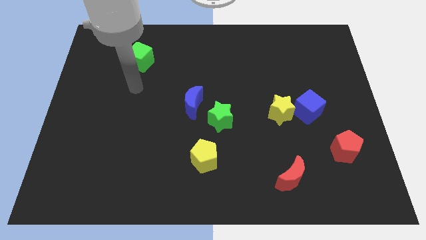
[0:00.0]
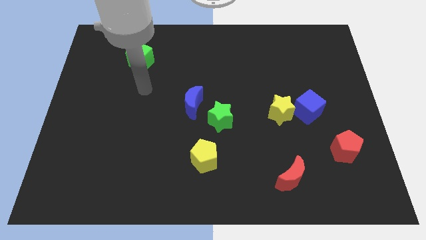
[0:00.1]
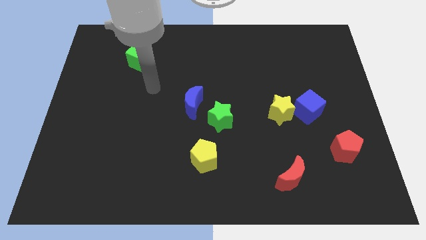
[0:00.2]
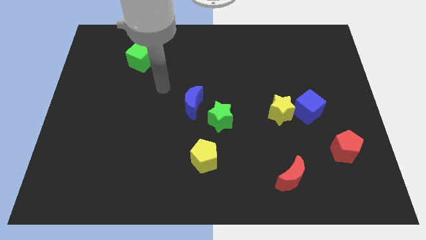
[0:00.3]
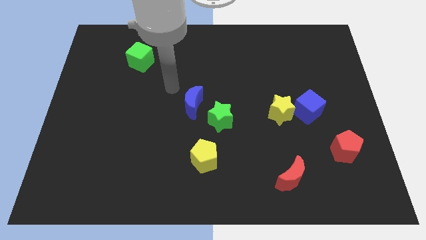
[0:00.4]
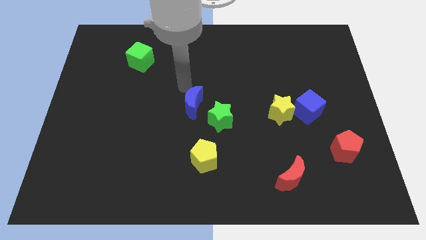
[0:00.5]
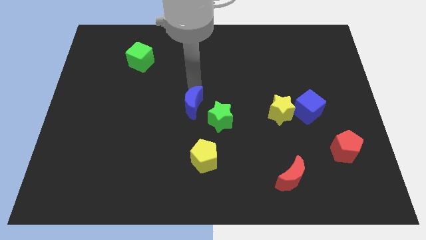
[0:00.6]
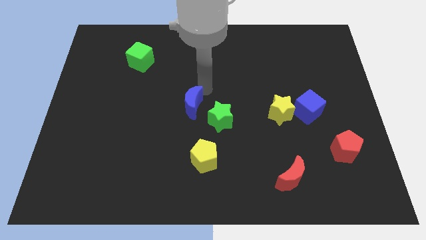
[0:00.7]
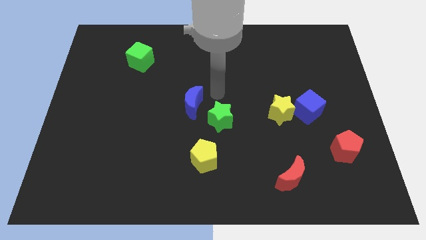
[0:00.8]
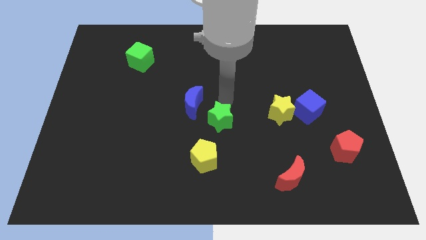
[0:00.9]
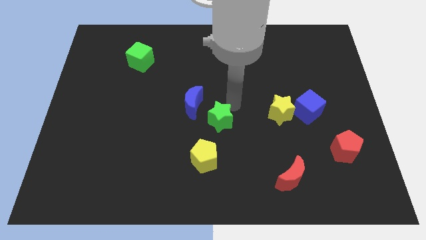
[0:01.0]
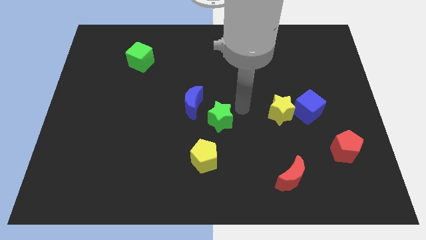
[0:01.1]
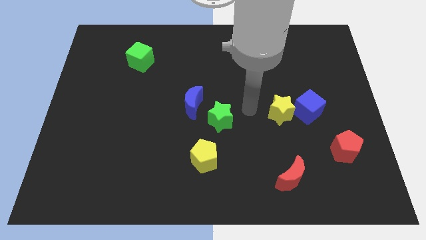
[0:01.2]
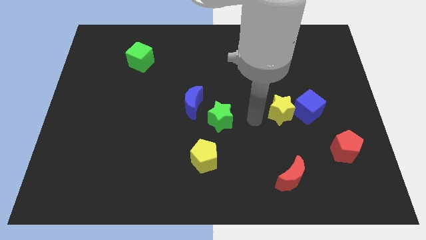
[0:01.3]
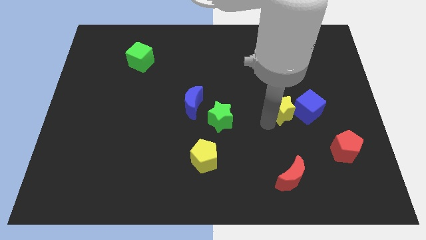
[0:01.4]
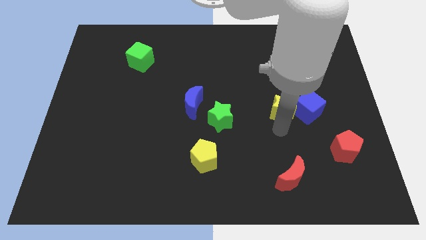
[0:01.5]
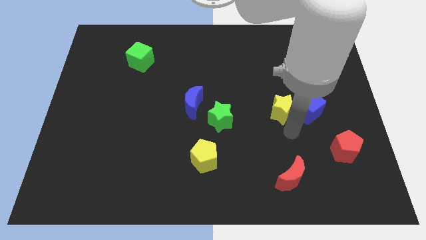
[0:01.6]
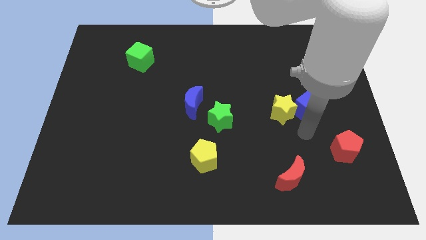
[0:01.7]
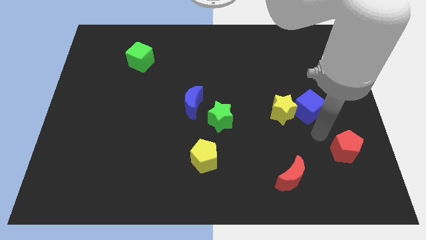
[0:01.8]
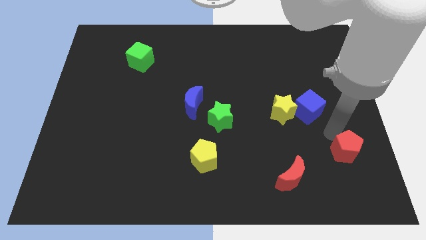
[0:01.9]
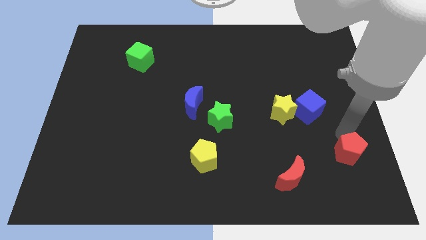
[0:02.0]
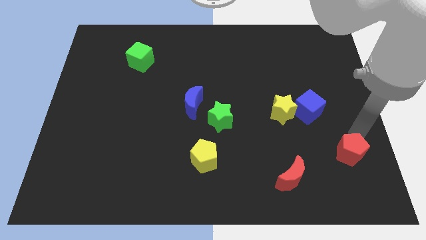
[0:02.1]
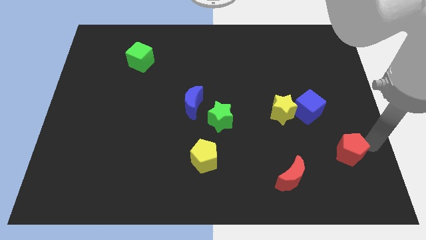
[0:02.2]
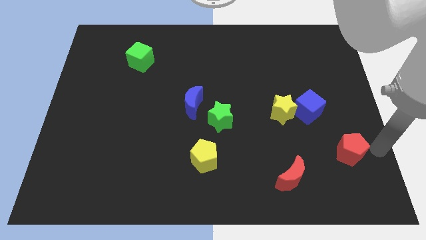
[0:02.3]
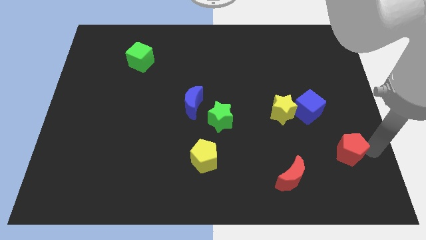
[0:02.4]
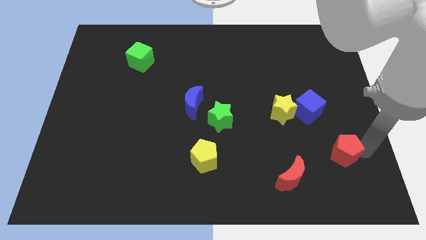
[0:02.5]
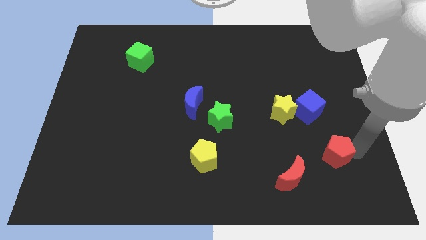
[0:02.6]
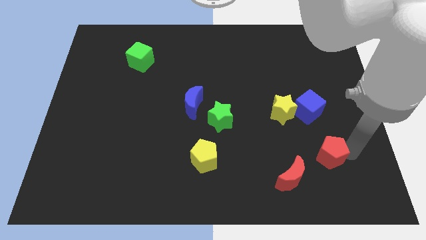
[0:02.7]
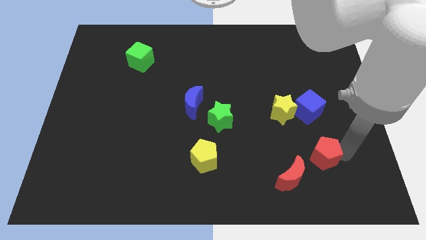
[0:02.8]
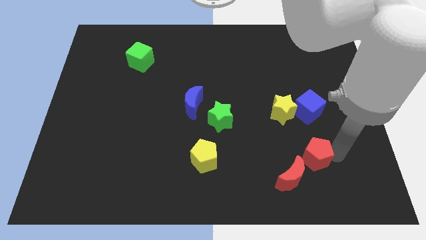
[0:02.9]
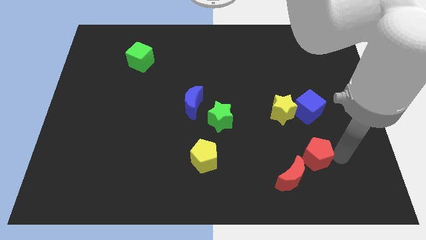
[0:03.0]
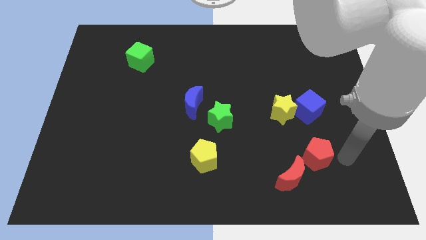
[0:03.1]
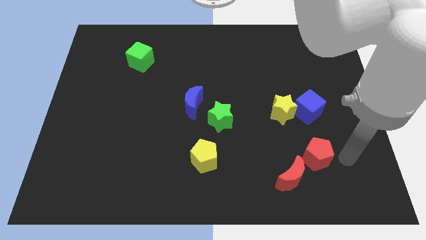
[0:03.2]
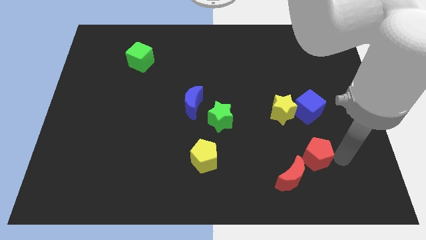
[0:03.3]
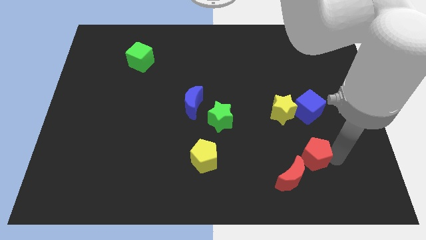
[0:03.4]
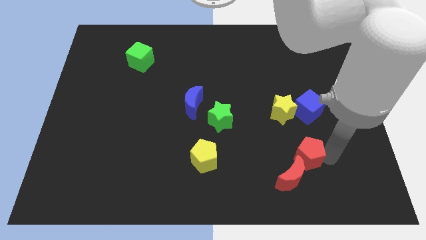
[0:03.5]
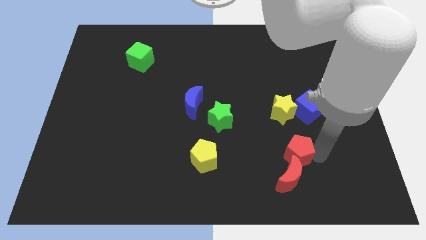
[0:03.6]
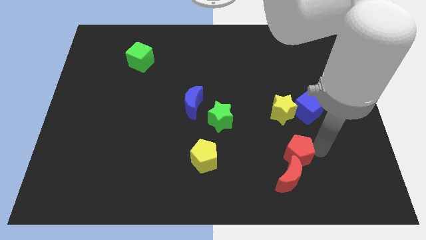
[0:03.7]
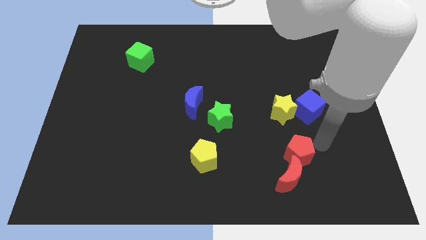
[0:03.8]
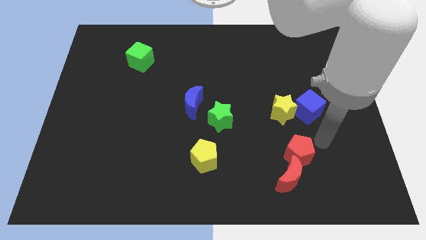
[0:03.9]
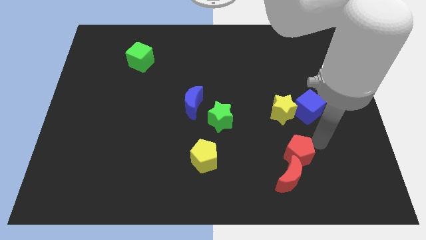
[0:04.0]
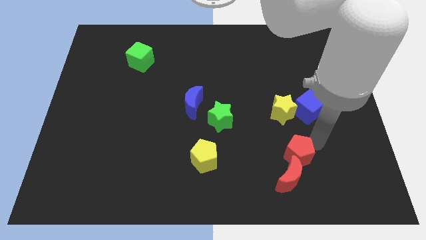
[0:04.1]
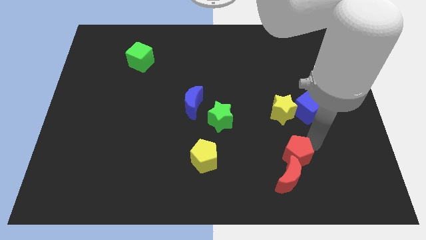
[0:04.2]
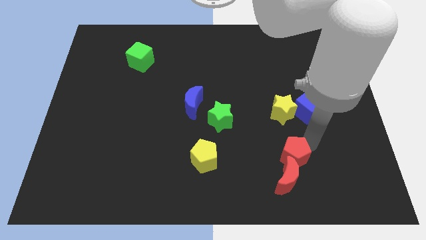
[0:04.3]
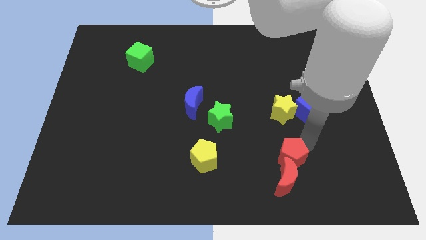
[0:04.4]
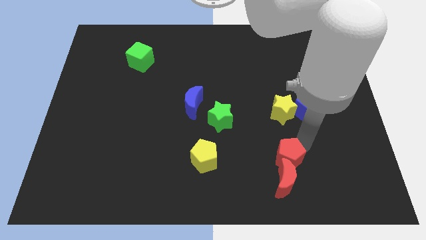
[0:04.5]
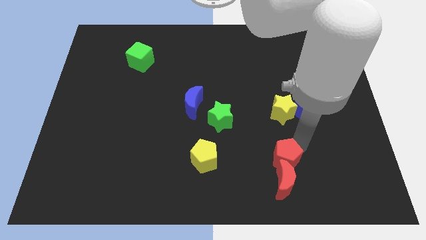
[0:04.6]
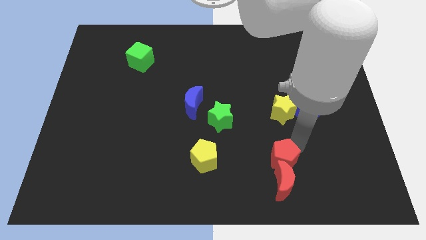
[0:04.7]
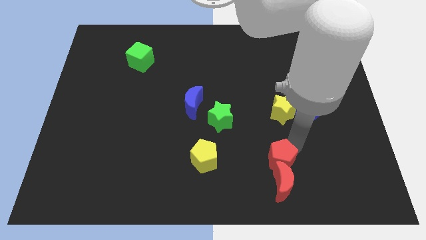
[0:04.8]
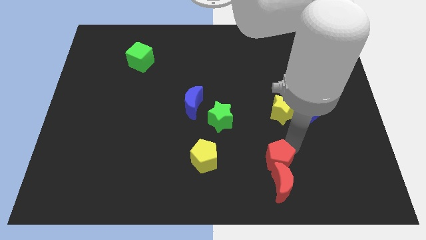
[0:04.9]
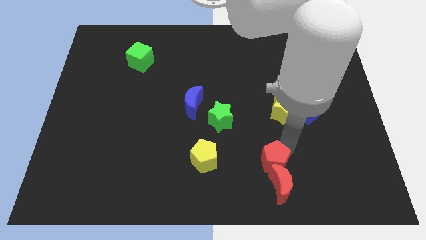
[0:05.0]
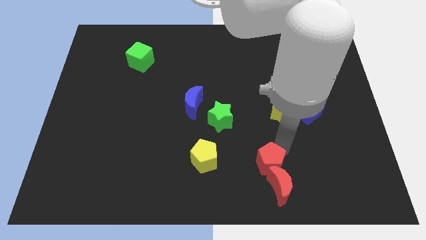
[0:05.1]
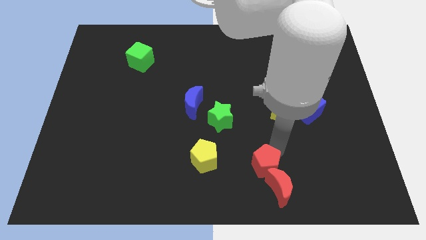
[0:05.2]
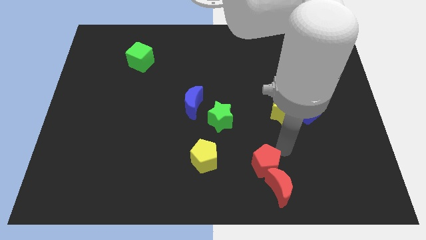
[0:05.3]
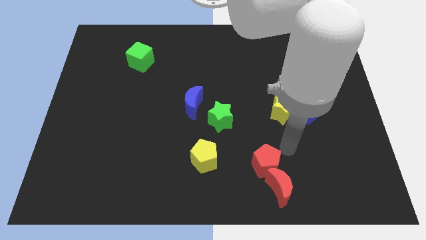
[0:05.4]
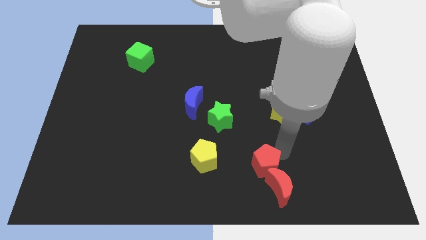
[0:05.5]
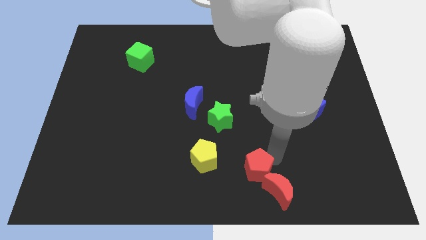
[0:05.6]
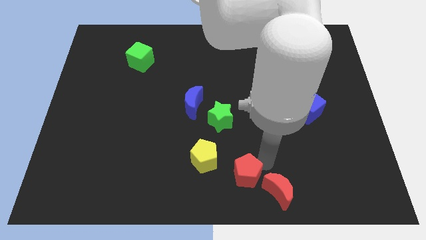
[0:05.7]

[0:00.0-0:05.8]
move the red pentagon to the left side of the red moon

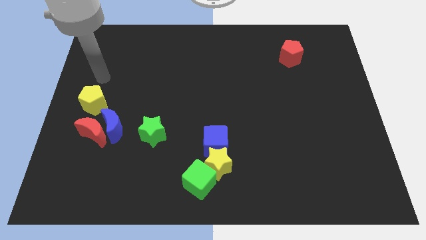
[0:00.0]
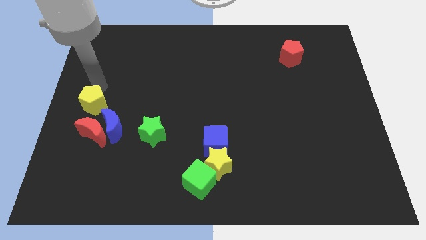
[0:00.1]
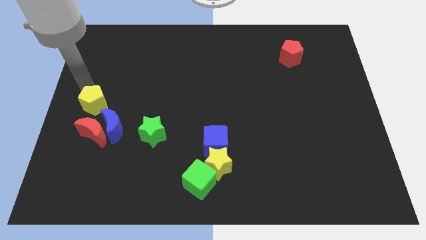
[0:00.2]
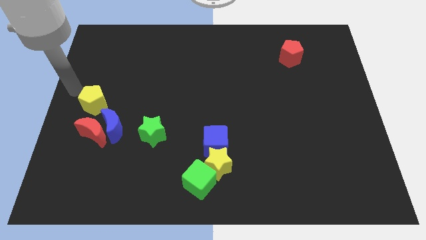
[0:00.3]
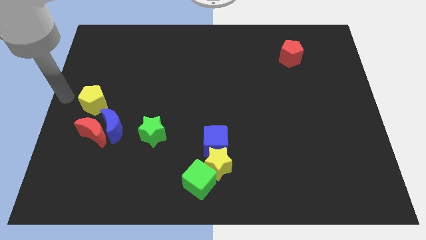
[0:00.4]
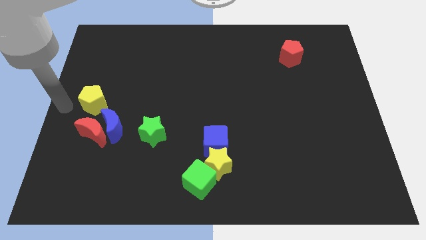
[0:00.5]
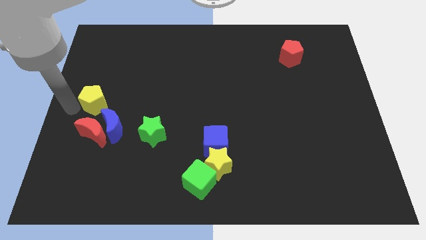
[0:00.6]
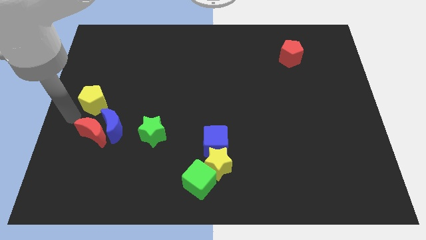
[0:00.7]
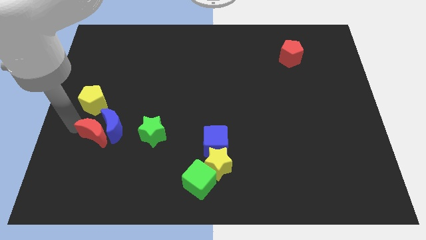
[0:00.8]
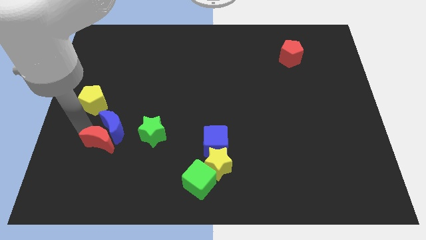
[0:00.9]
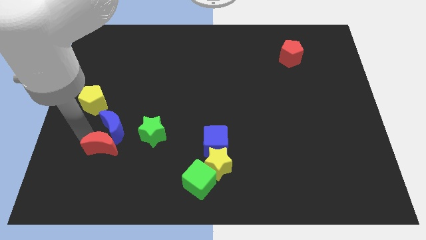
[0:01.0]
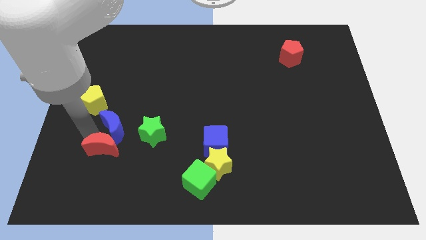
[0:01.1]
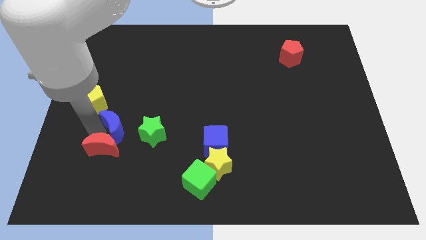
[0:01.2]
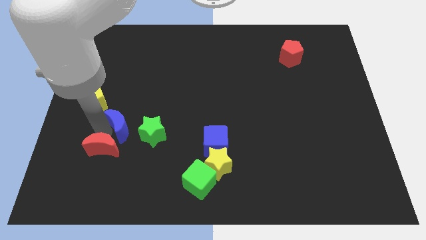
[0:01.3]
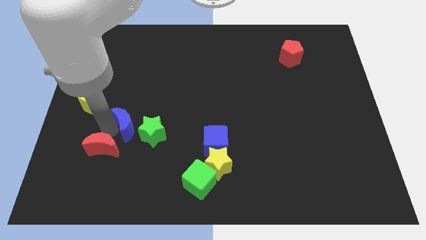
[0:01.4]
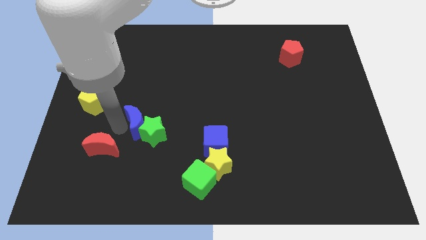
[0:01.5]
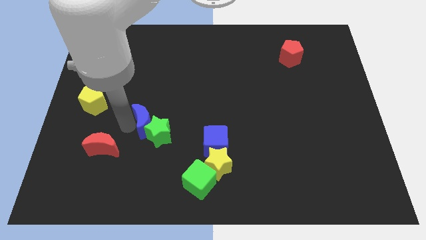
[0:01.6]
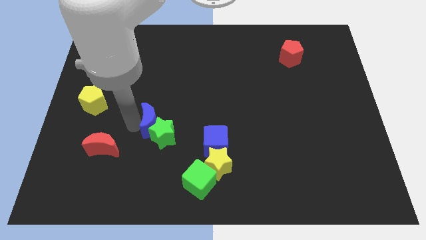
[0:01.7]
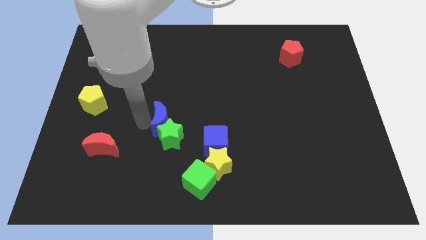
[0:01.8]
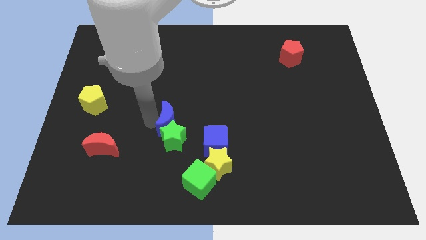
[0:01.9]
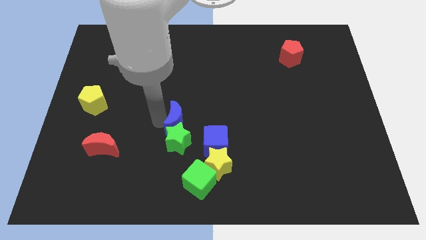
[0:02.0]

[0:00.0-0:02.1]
slide the blue moon diagonally up and to the left of the blue cube
